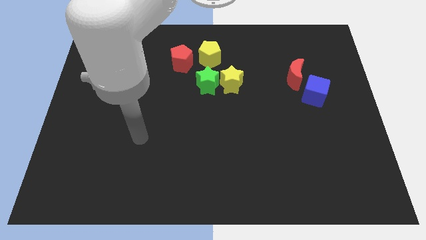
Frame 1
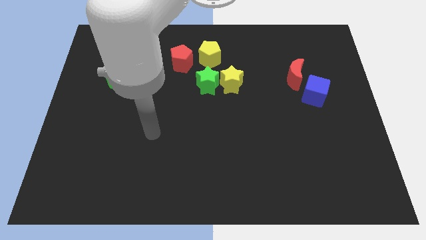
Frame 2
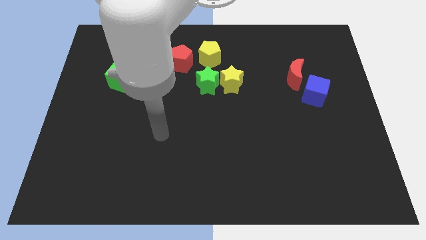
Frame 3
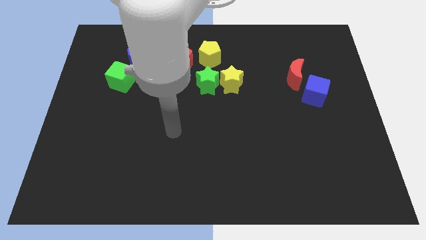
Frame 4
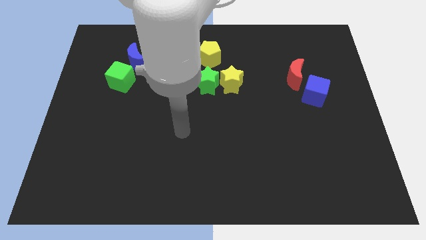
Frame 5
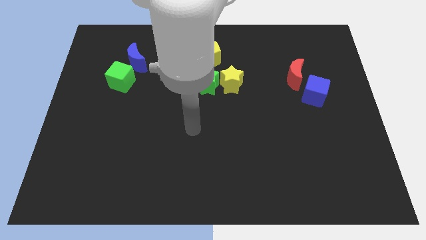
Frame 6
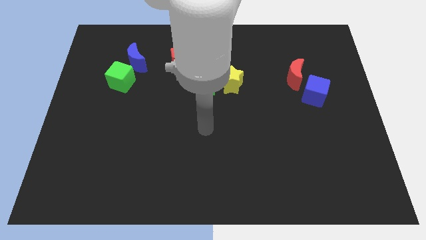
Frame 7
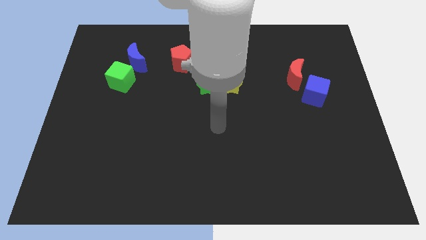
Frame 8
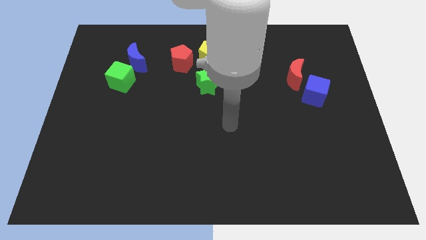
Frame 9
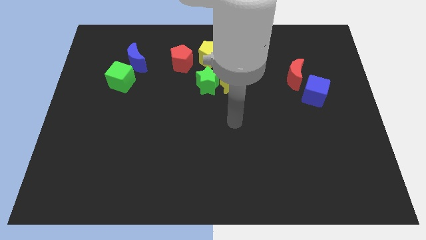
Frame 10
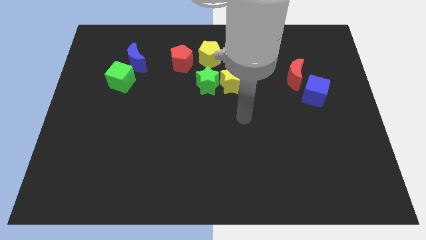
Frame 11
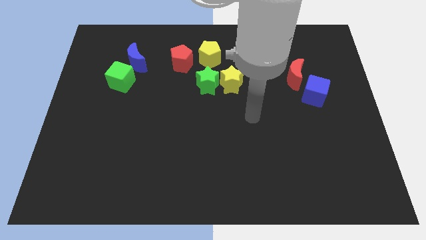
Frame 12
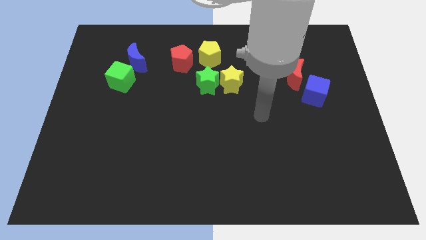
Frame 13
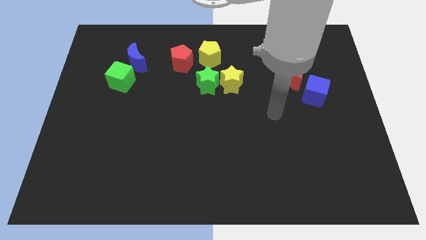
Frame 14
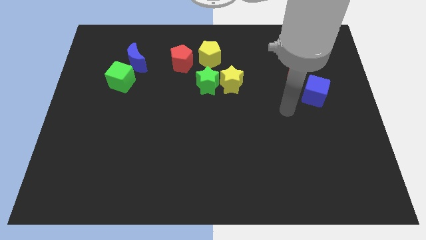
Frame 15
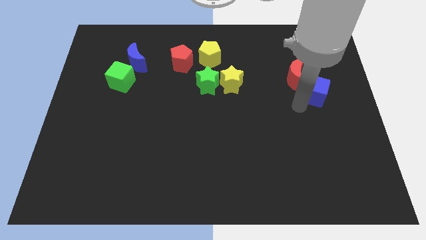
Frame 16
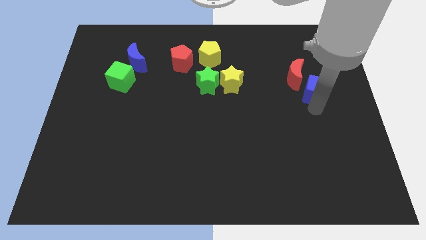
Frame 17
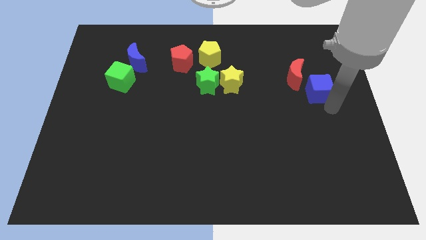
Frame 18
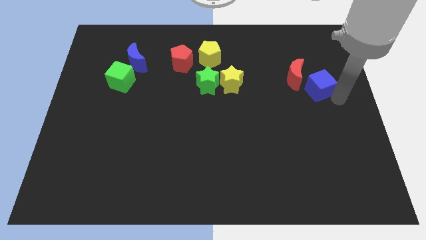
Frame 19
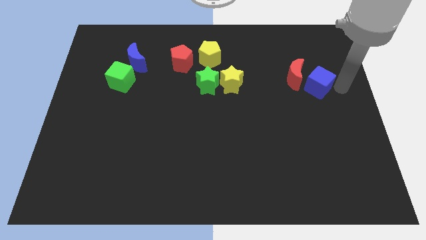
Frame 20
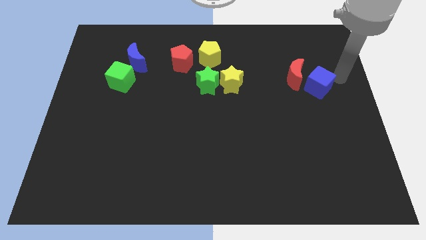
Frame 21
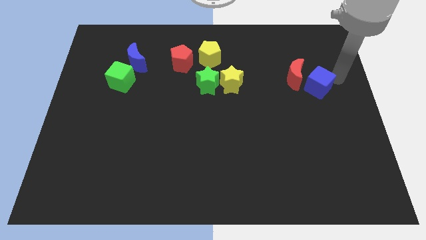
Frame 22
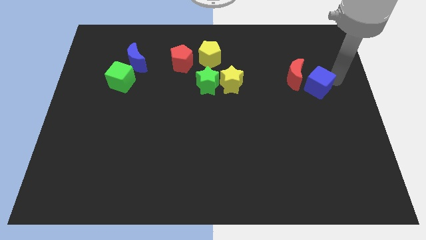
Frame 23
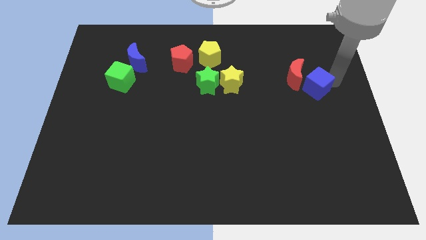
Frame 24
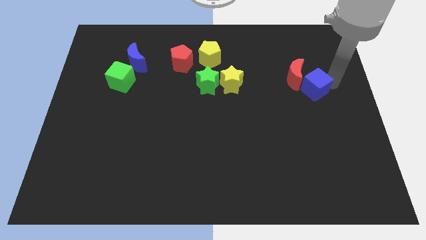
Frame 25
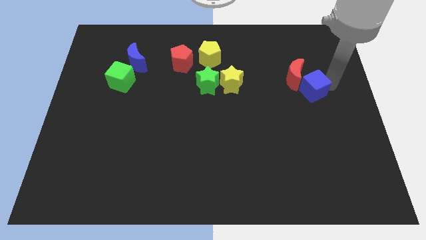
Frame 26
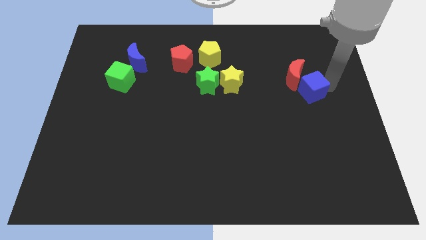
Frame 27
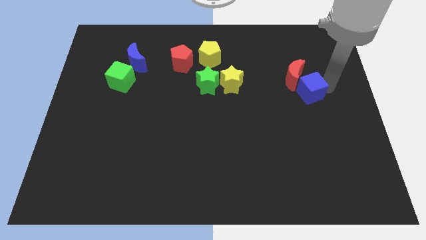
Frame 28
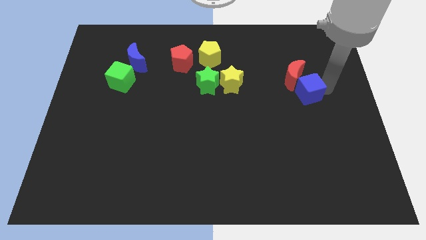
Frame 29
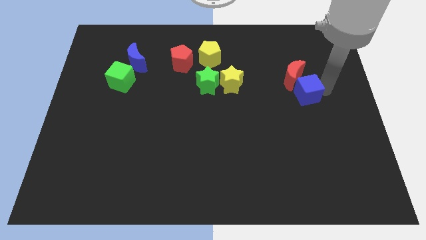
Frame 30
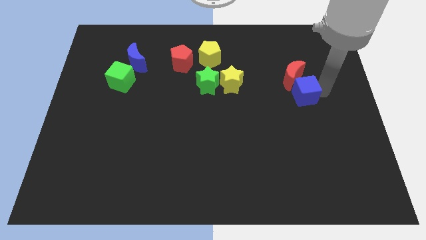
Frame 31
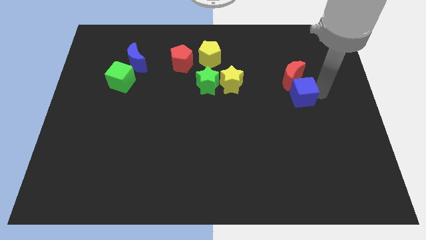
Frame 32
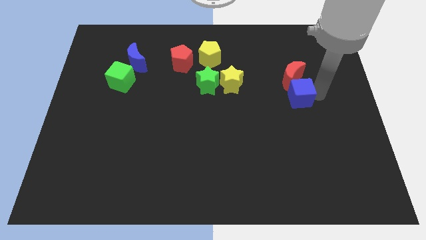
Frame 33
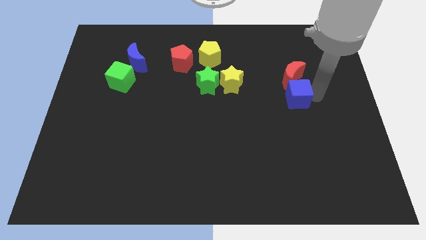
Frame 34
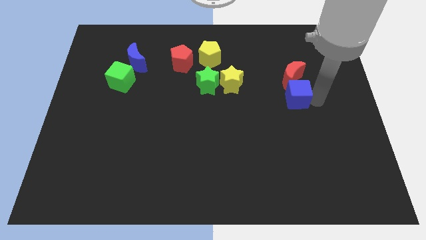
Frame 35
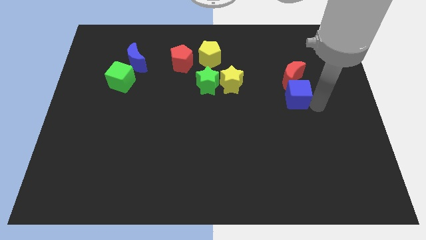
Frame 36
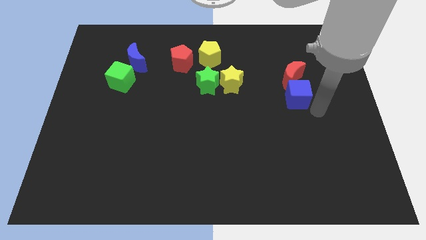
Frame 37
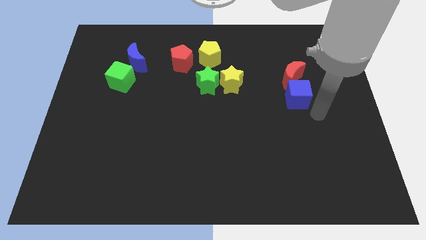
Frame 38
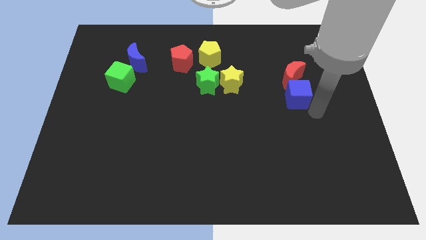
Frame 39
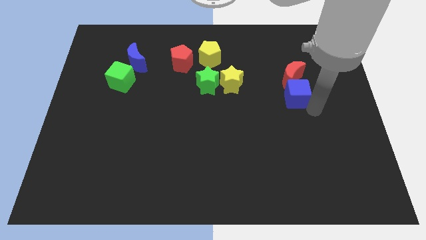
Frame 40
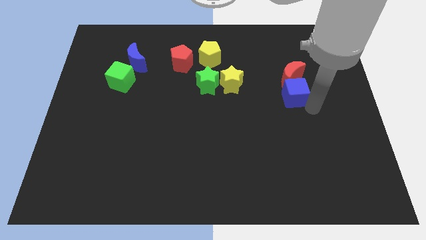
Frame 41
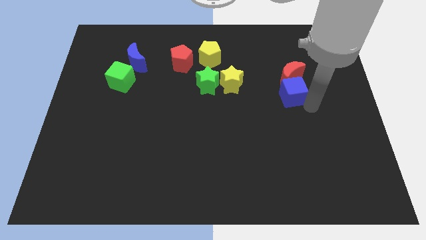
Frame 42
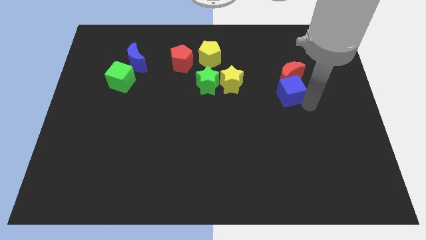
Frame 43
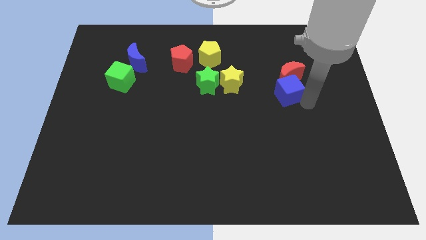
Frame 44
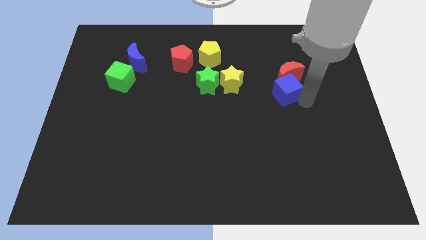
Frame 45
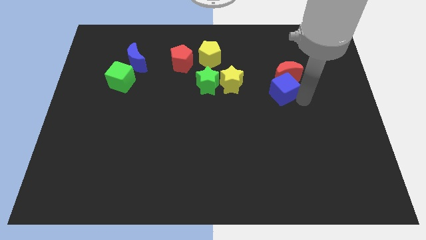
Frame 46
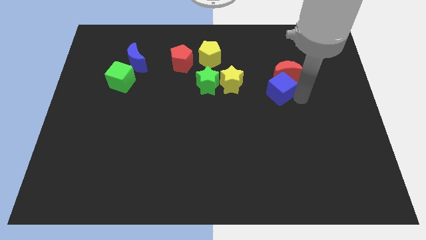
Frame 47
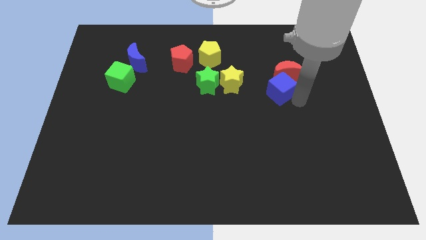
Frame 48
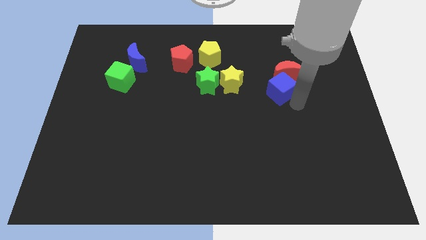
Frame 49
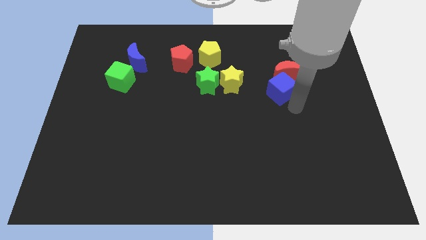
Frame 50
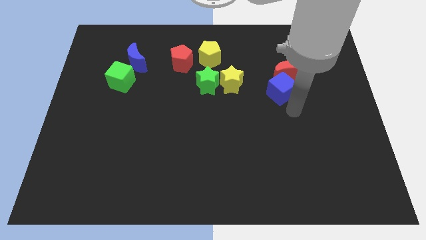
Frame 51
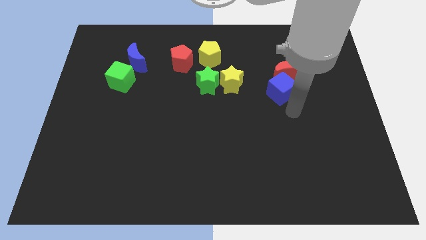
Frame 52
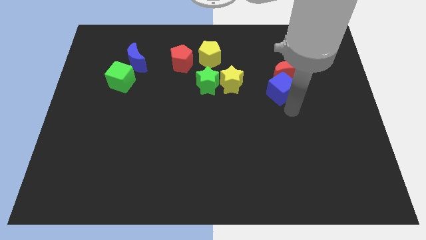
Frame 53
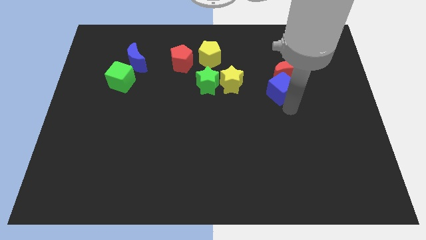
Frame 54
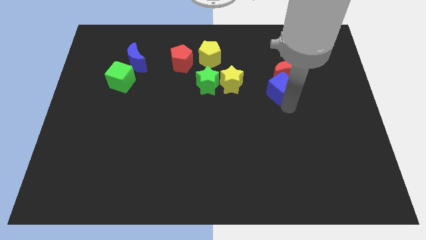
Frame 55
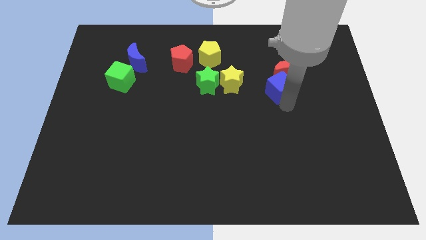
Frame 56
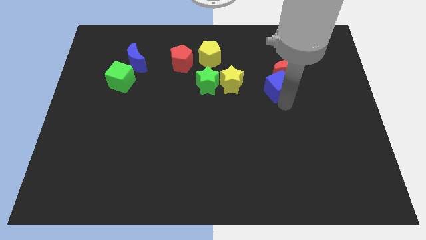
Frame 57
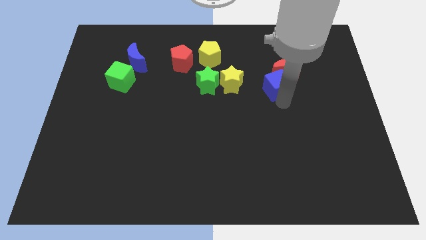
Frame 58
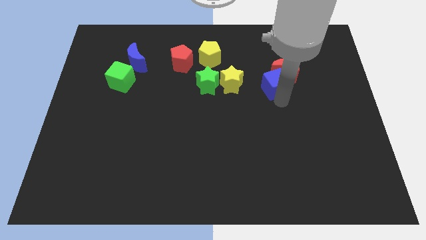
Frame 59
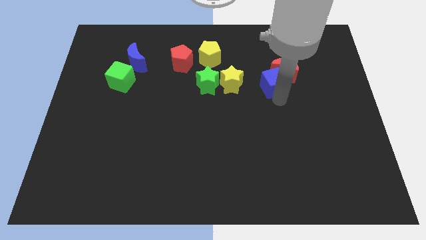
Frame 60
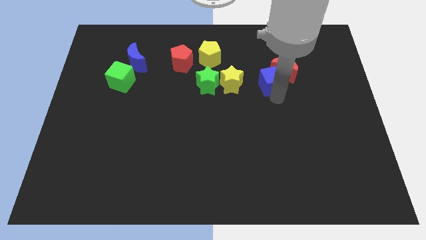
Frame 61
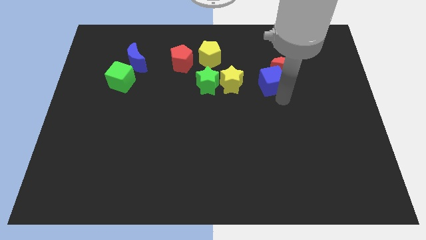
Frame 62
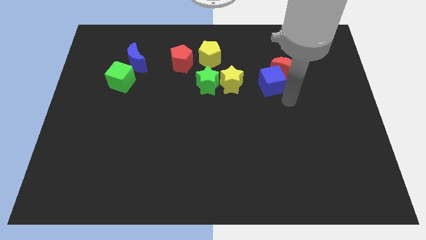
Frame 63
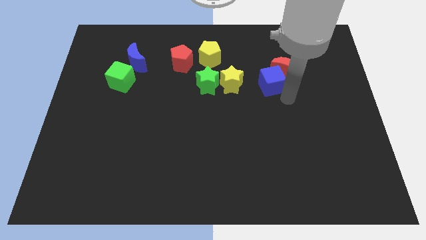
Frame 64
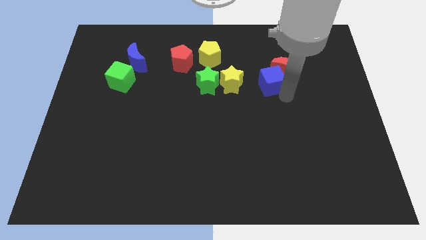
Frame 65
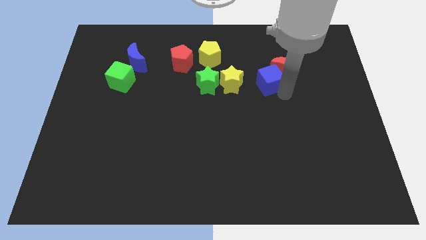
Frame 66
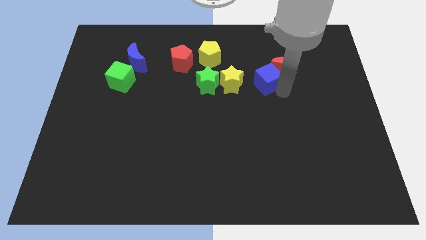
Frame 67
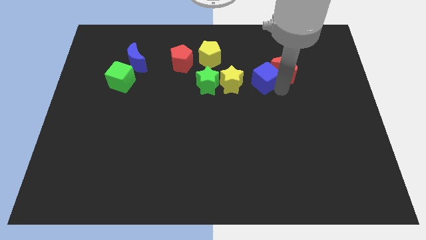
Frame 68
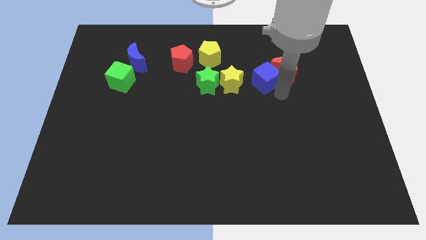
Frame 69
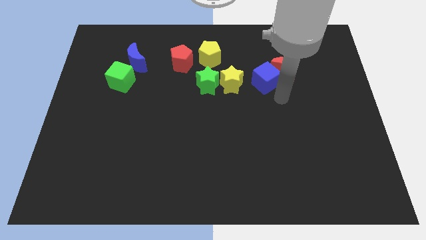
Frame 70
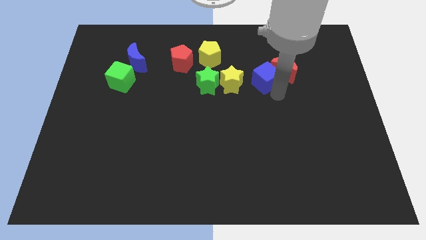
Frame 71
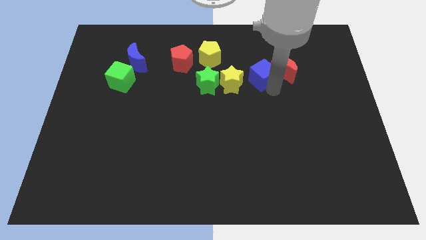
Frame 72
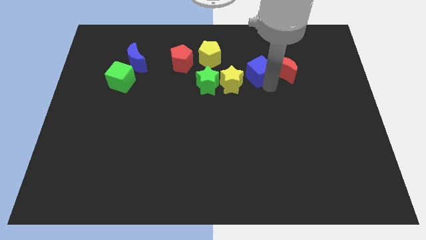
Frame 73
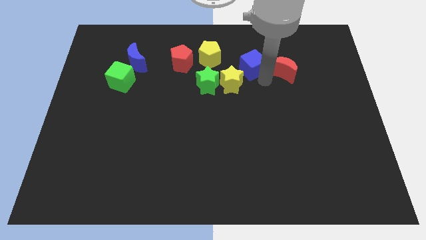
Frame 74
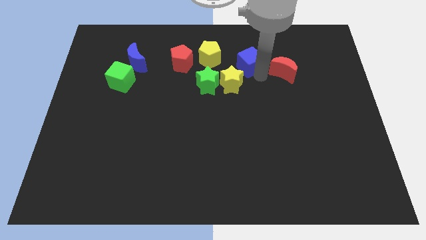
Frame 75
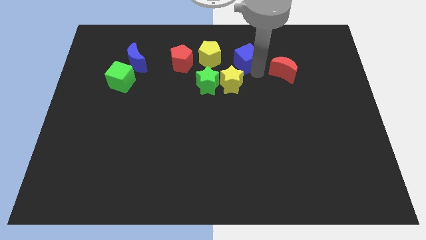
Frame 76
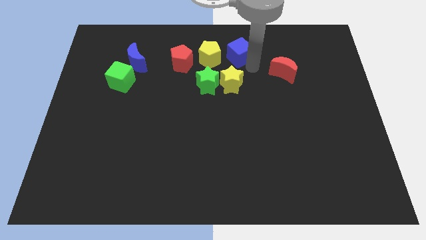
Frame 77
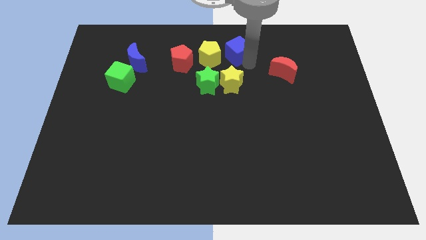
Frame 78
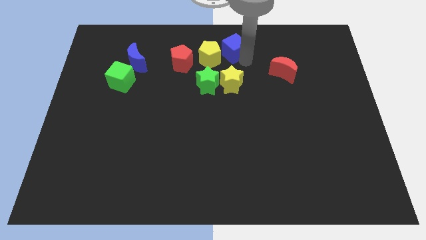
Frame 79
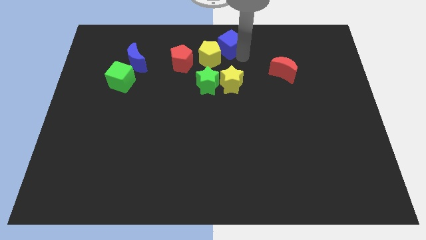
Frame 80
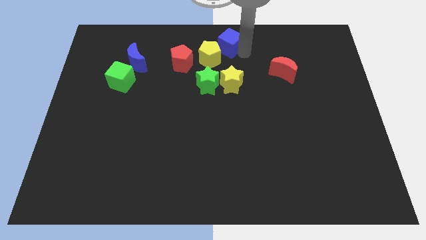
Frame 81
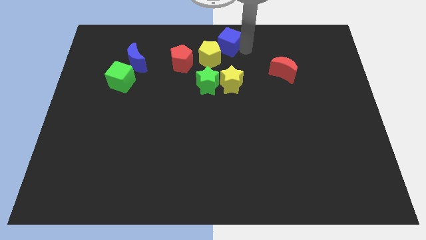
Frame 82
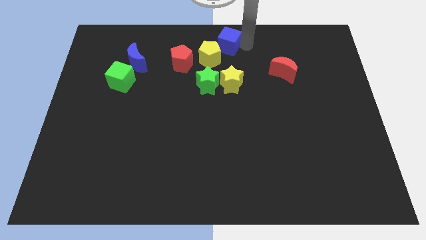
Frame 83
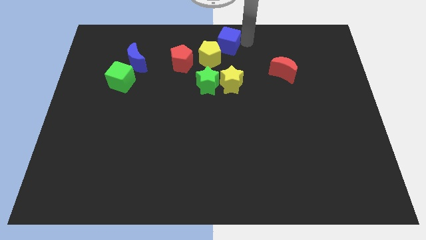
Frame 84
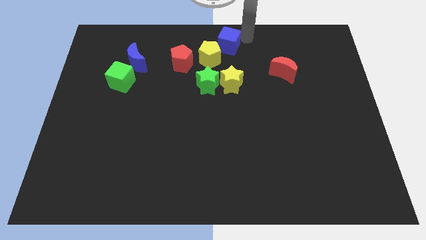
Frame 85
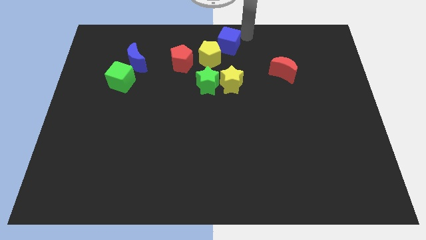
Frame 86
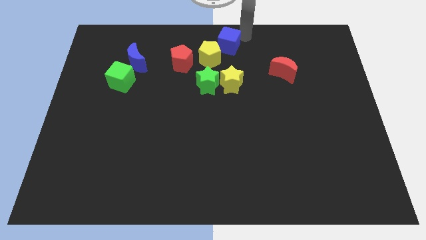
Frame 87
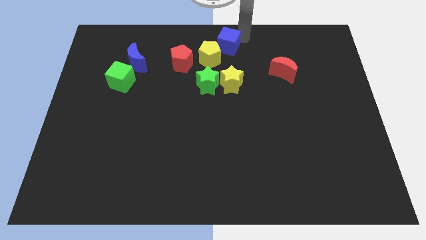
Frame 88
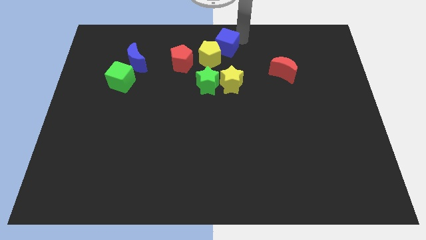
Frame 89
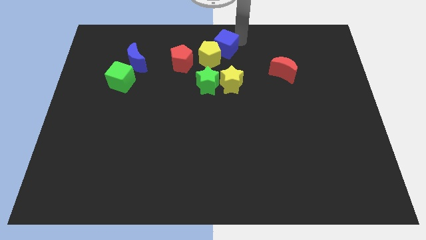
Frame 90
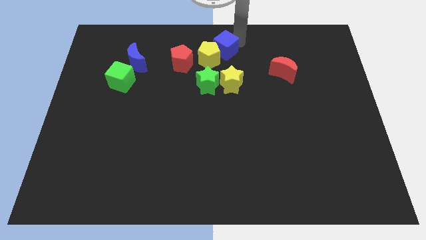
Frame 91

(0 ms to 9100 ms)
push the blue cube above the green star
